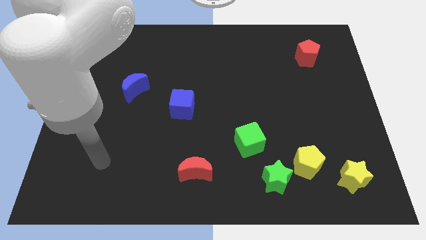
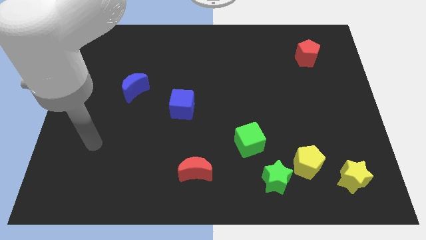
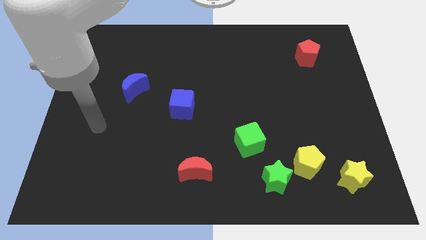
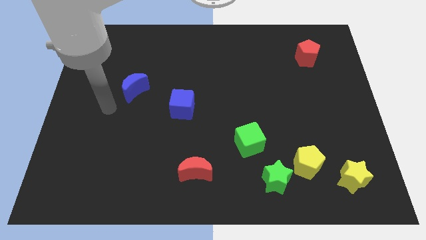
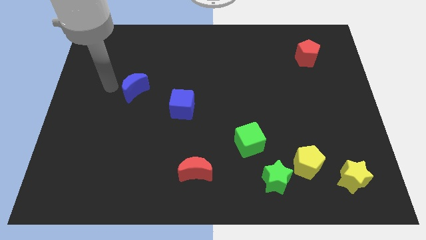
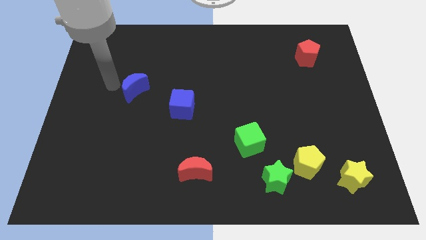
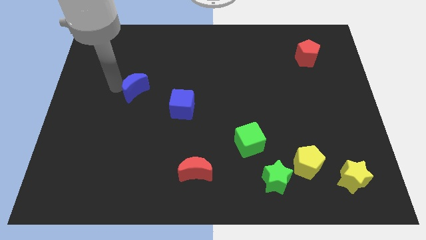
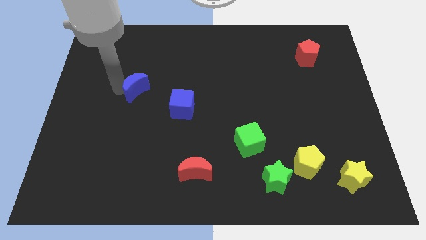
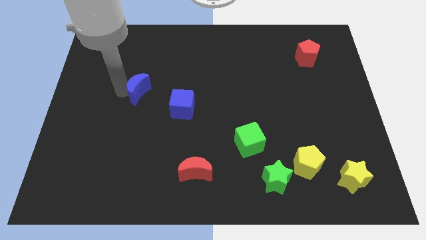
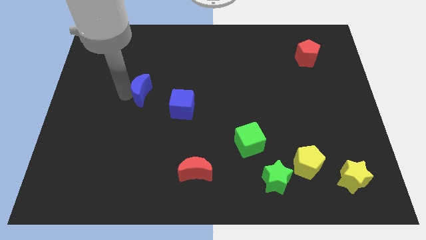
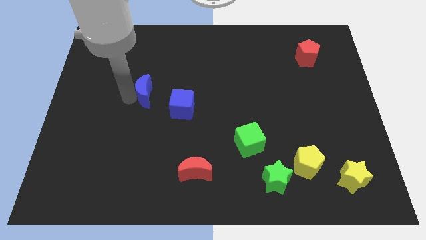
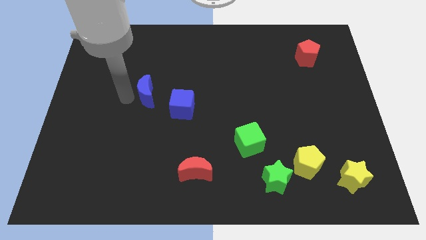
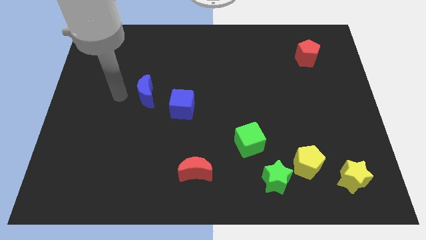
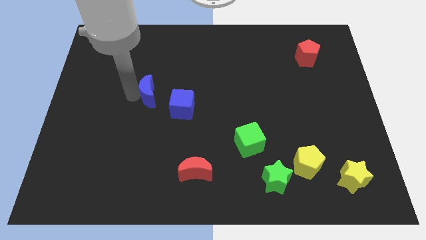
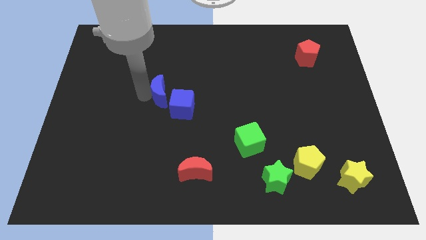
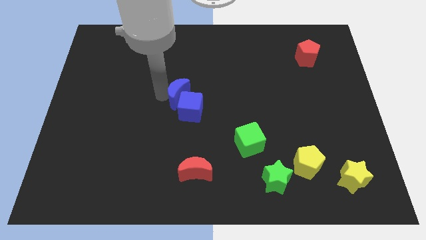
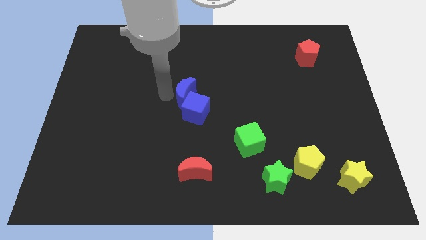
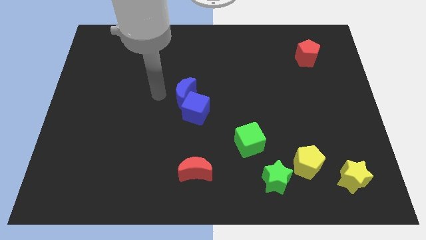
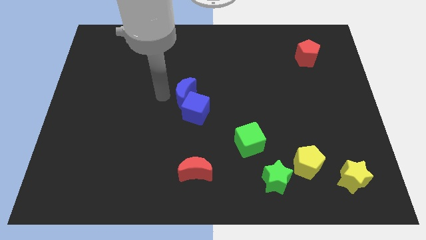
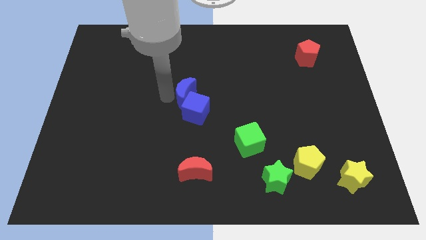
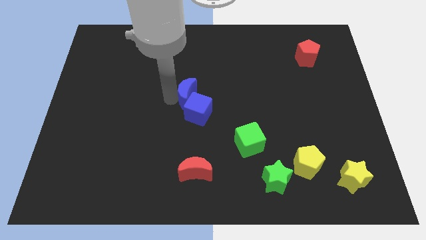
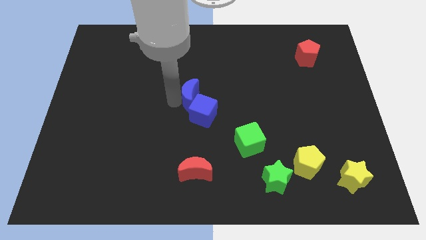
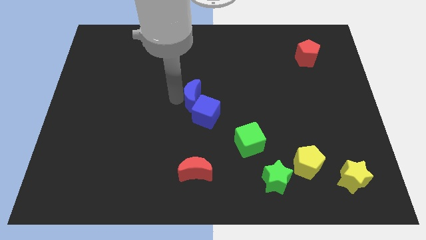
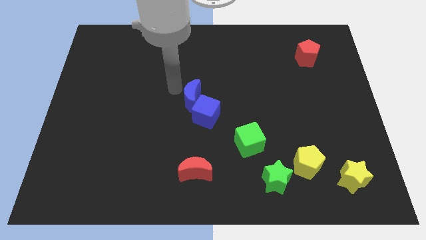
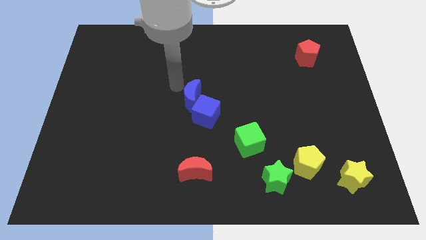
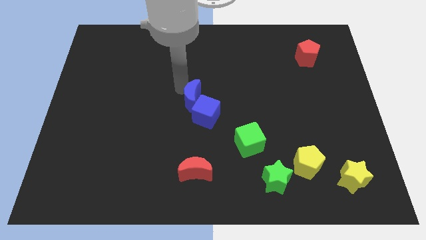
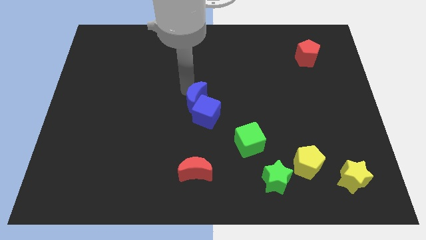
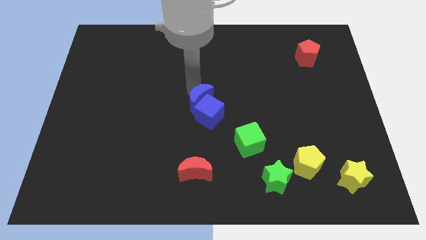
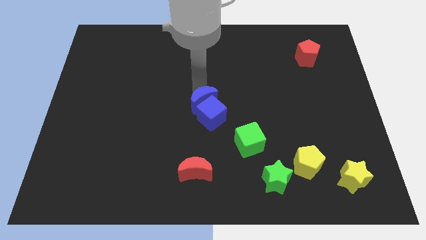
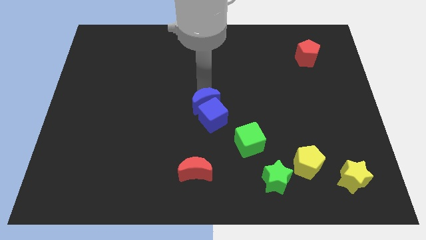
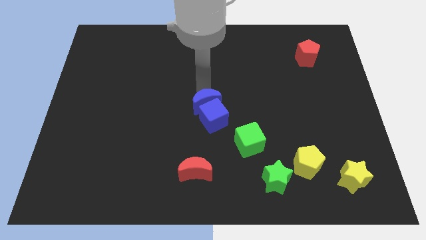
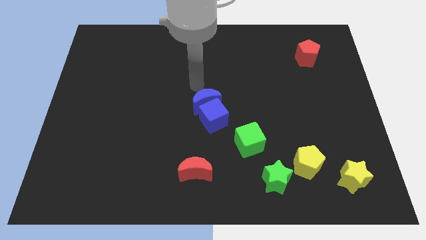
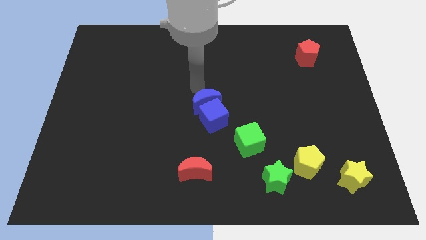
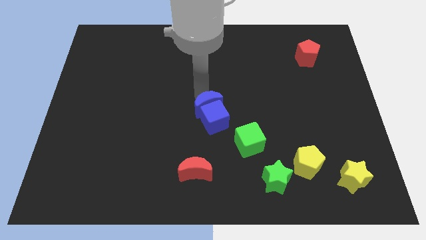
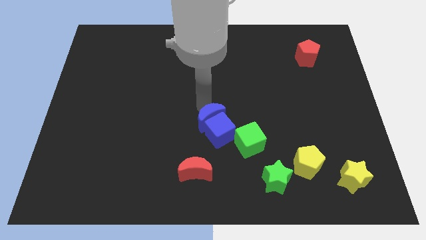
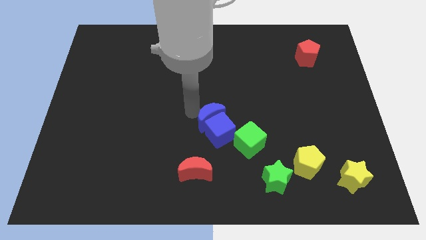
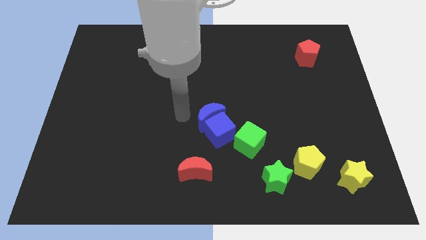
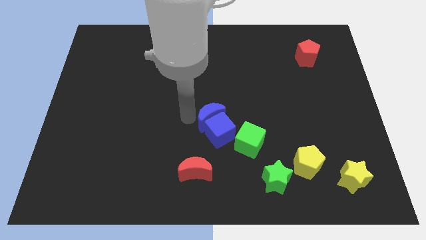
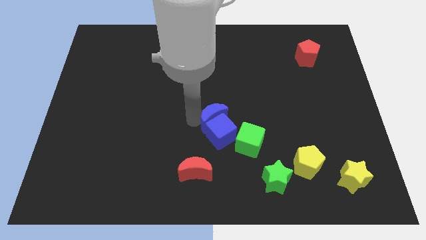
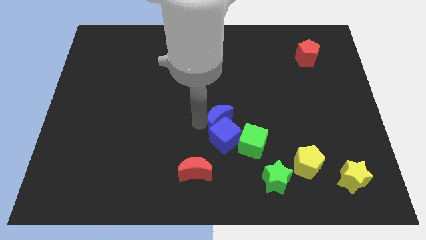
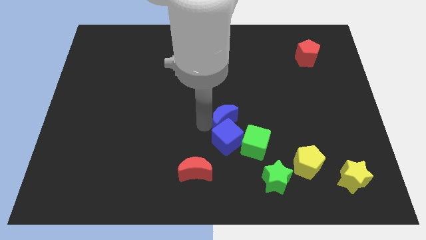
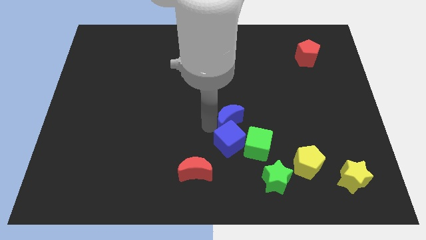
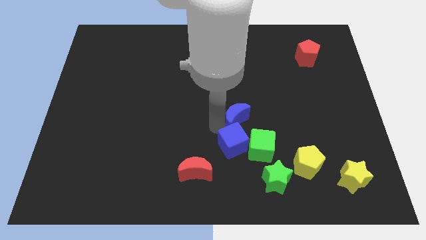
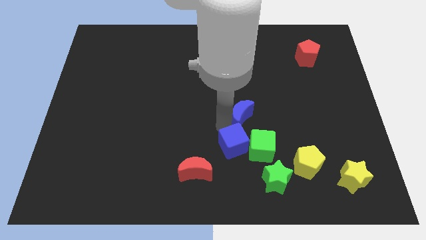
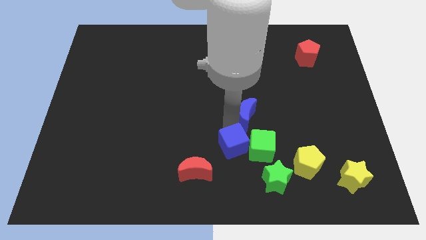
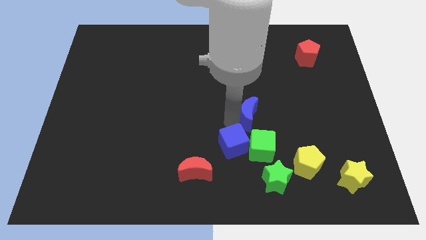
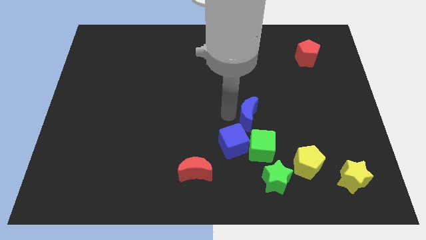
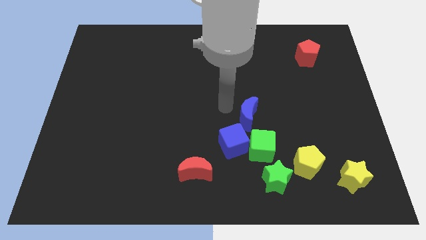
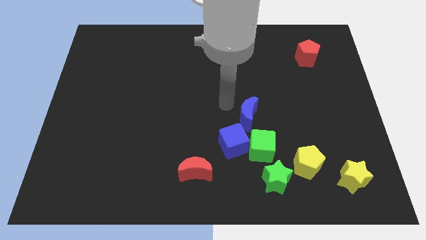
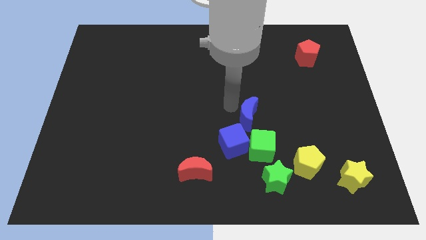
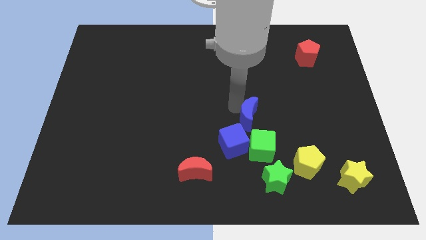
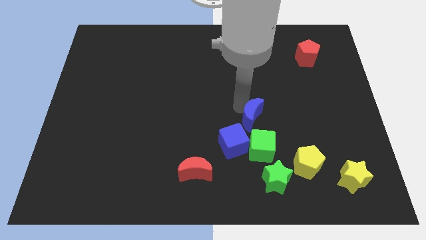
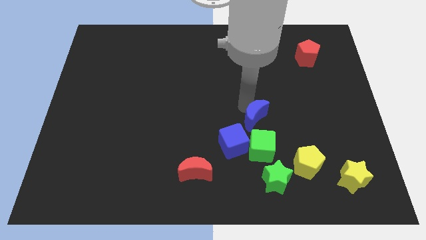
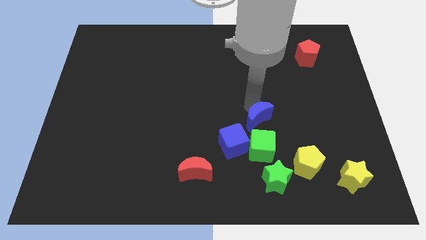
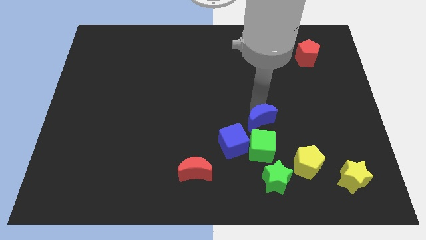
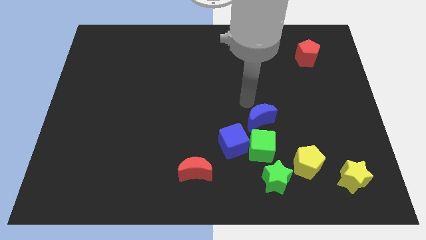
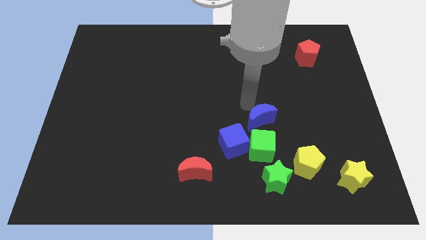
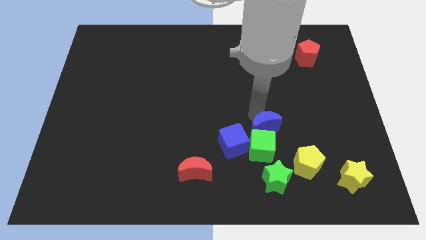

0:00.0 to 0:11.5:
move the blue moon to the top left of the yellow pentagon

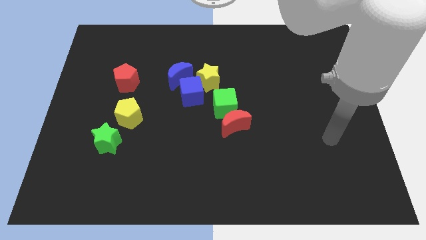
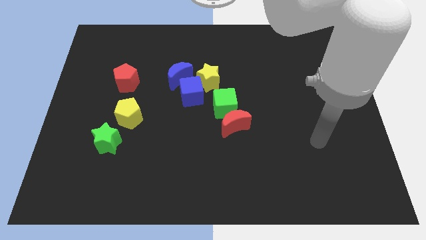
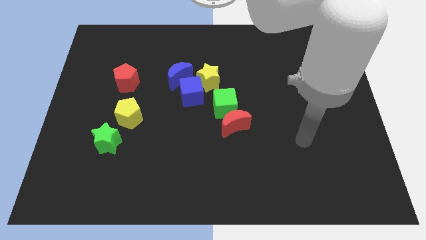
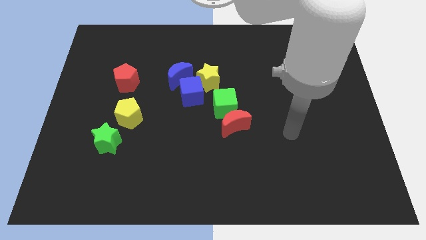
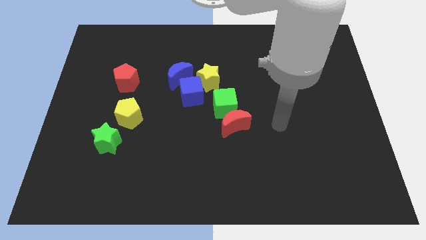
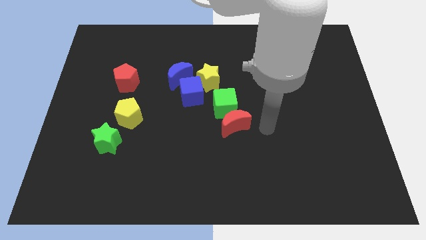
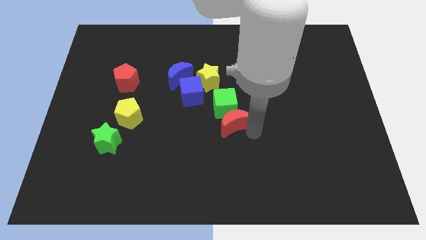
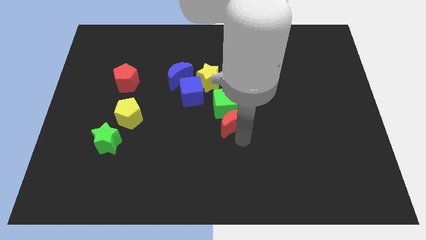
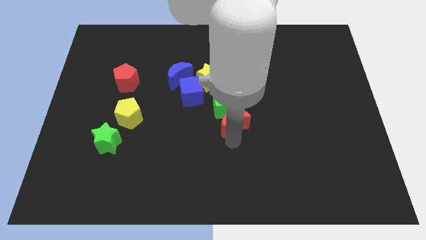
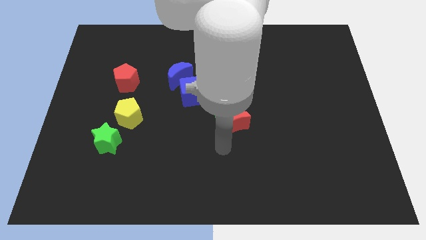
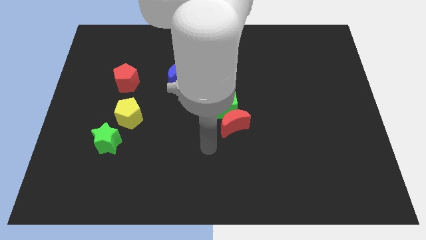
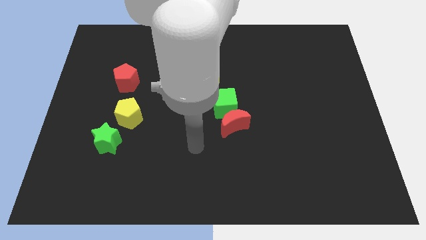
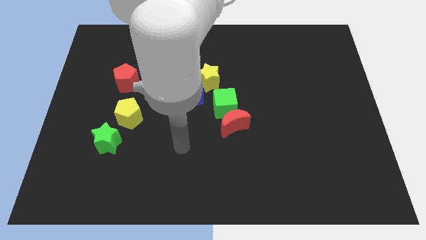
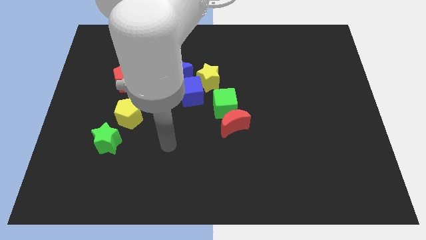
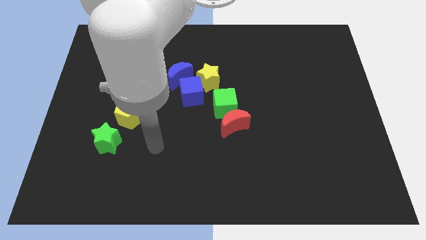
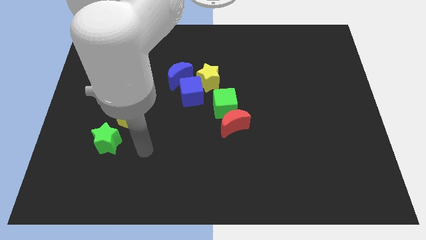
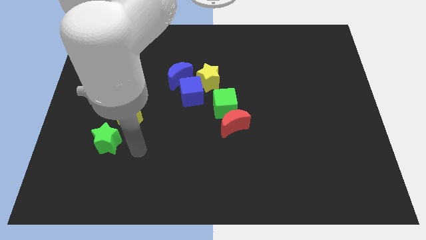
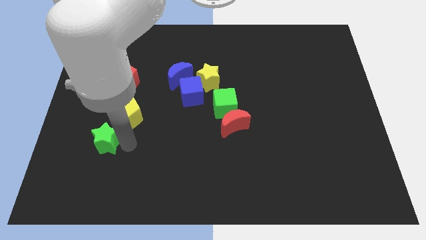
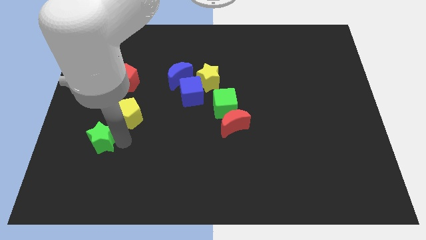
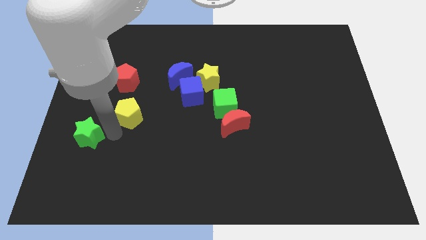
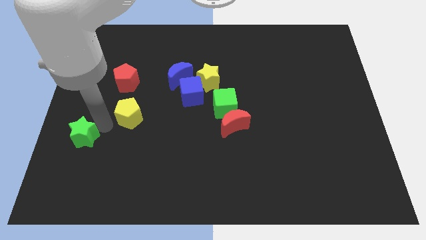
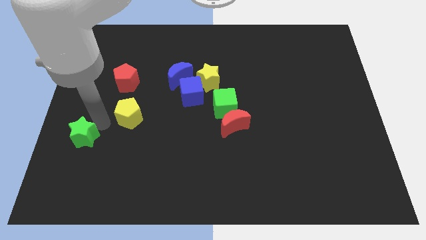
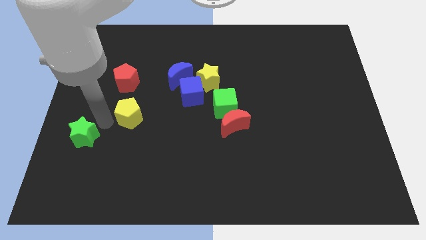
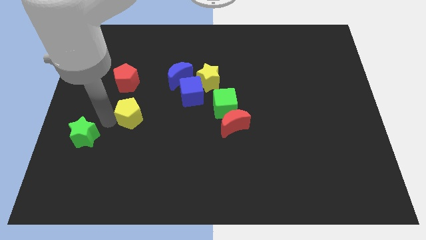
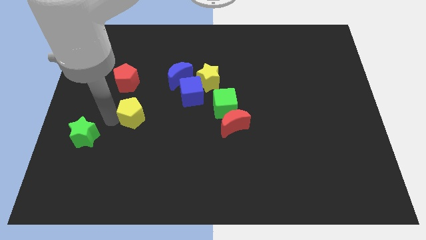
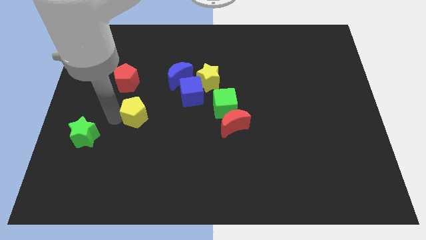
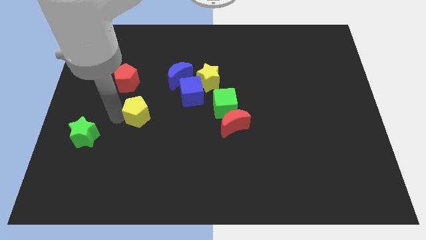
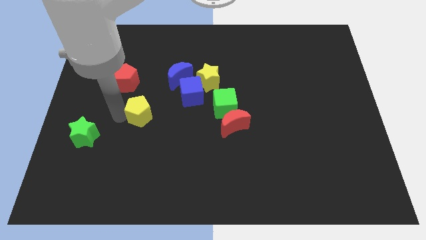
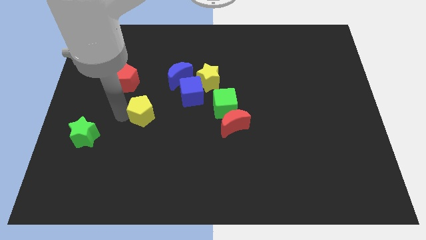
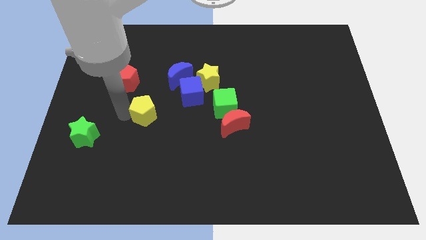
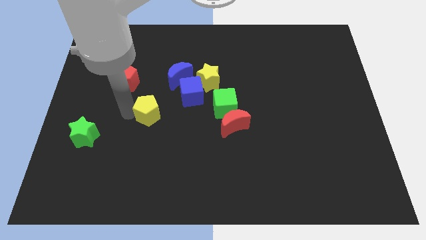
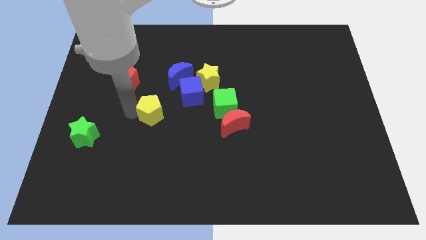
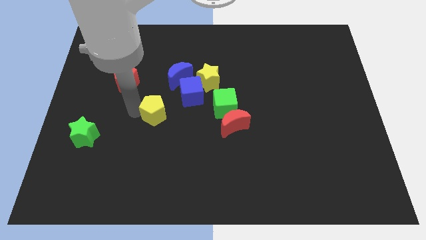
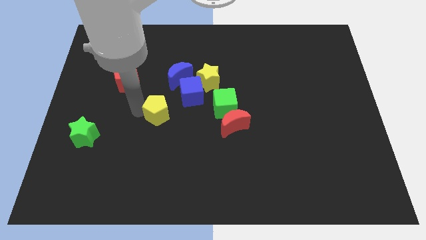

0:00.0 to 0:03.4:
put the yellow pentagon to the left of the green cube
